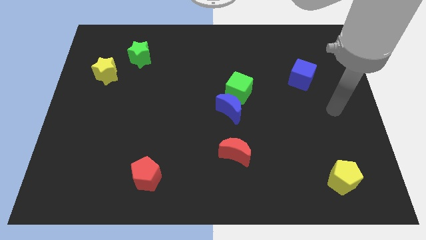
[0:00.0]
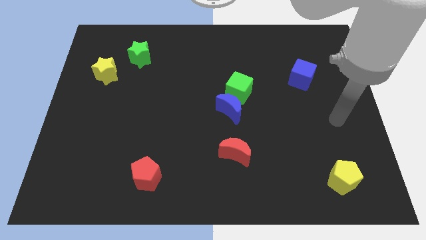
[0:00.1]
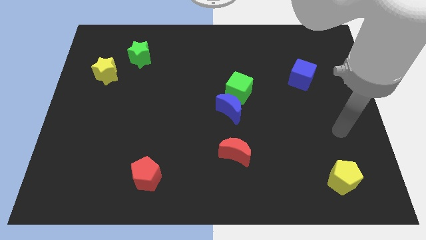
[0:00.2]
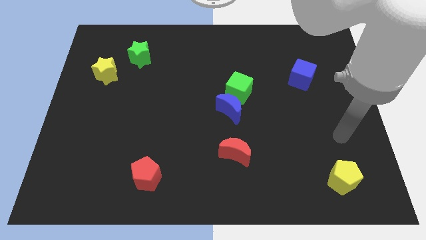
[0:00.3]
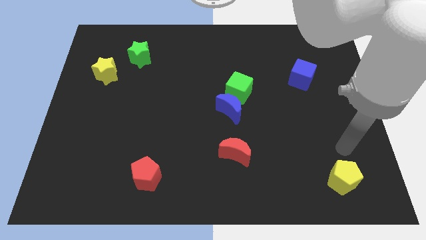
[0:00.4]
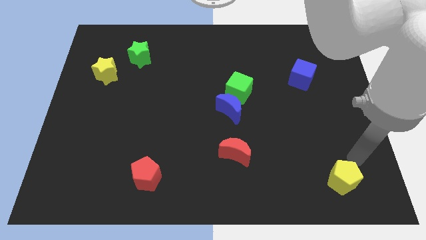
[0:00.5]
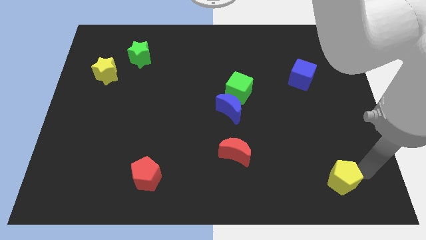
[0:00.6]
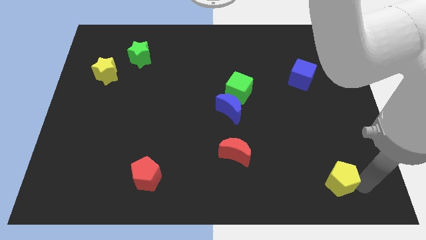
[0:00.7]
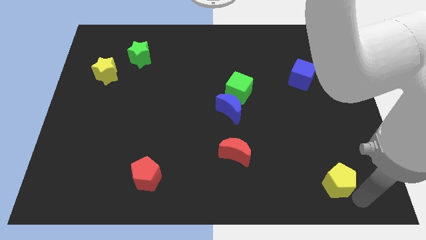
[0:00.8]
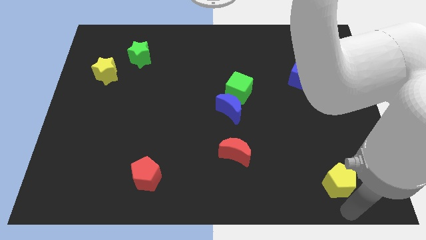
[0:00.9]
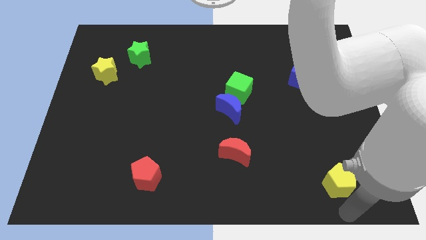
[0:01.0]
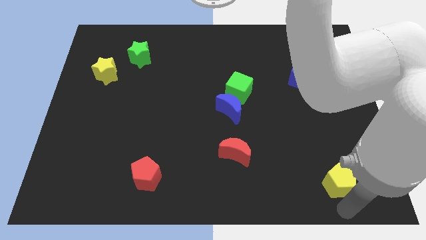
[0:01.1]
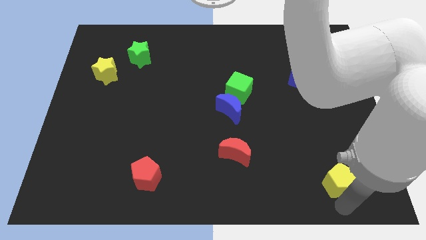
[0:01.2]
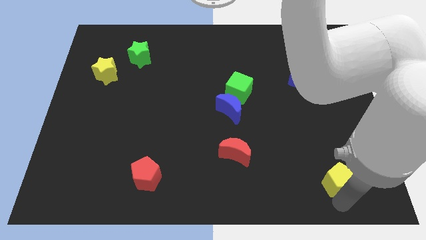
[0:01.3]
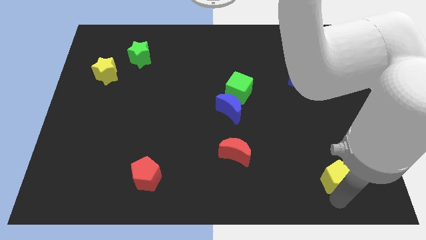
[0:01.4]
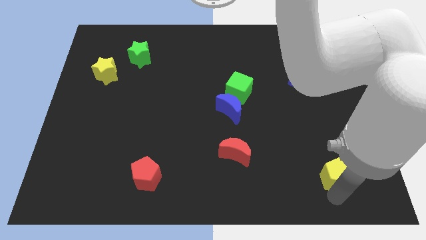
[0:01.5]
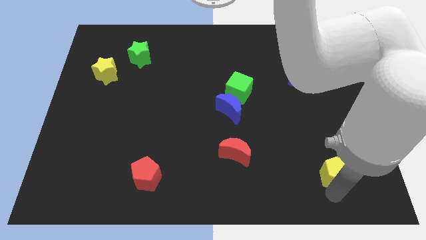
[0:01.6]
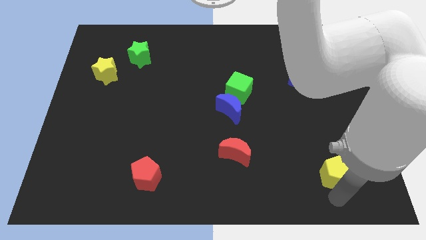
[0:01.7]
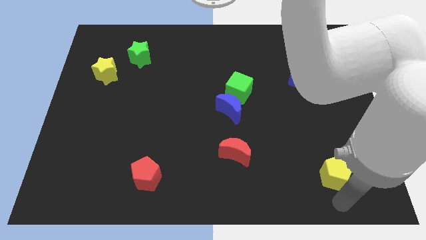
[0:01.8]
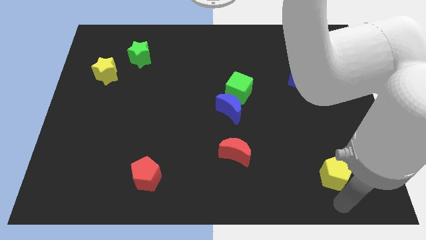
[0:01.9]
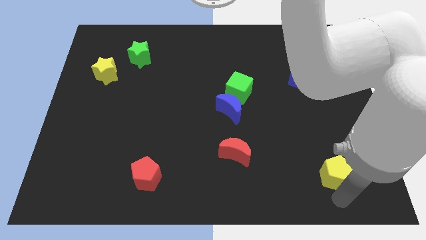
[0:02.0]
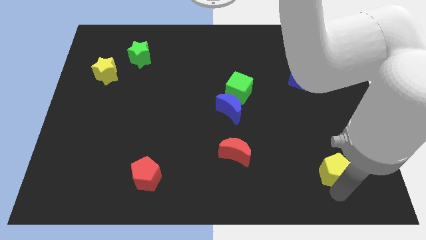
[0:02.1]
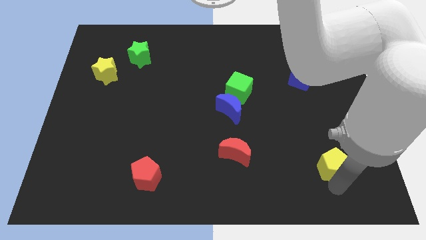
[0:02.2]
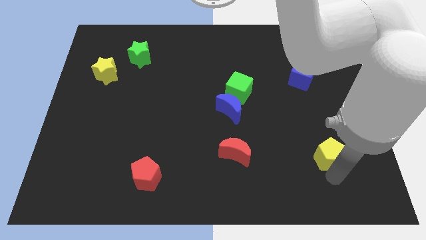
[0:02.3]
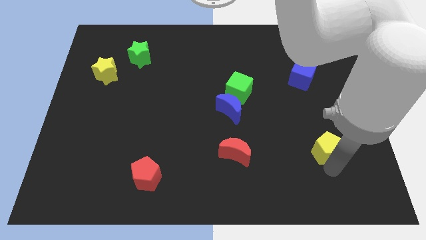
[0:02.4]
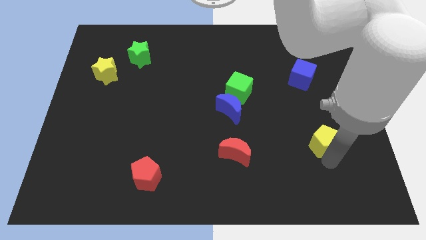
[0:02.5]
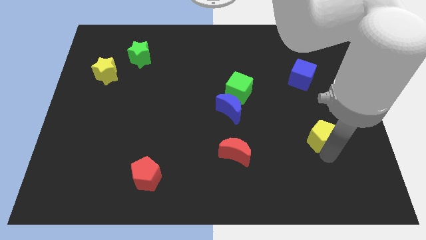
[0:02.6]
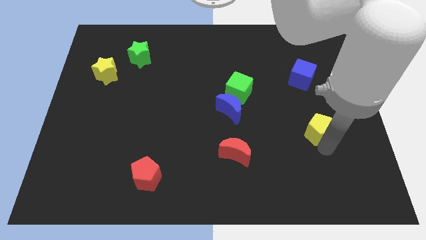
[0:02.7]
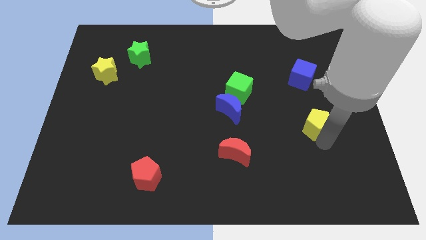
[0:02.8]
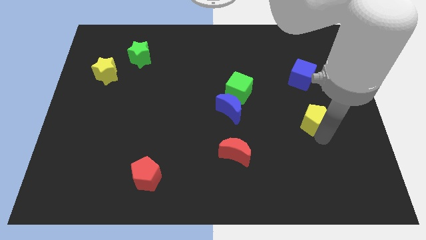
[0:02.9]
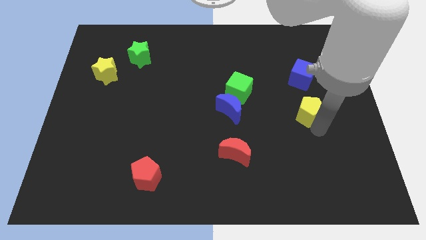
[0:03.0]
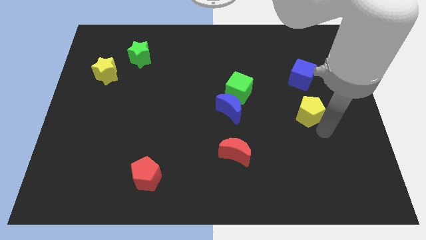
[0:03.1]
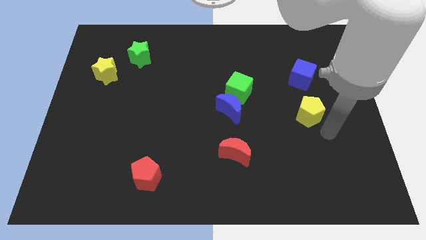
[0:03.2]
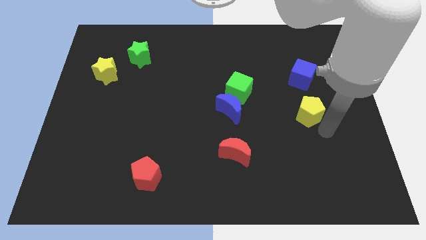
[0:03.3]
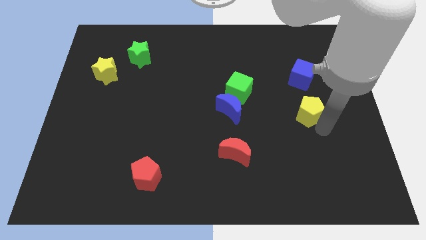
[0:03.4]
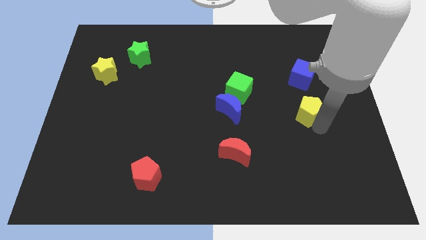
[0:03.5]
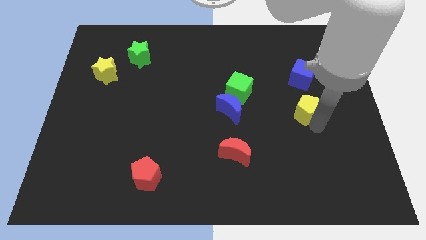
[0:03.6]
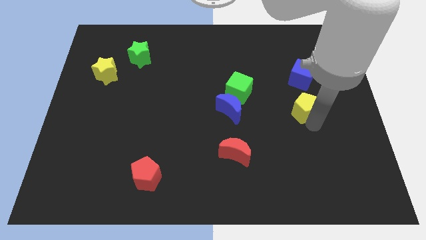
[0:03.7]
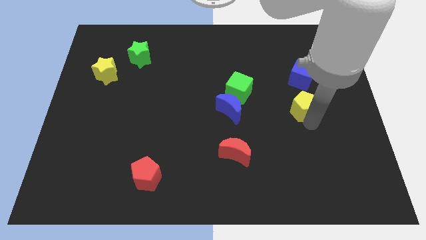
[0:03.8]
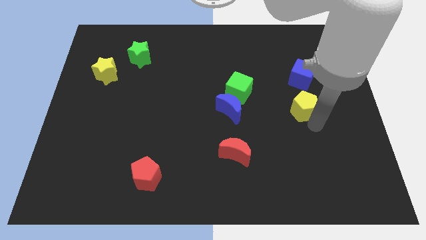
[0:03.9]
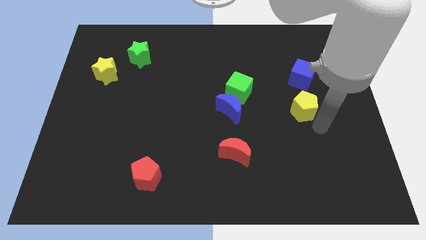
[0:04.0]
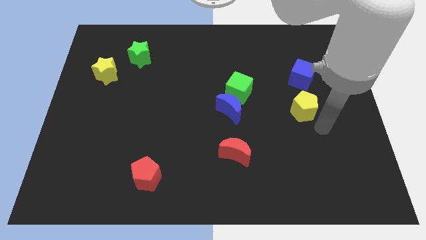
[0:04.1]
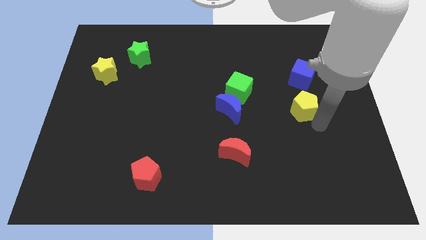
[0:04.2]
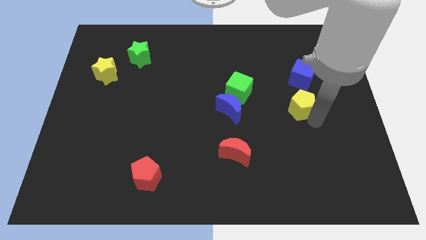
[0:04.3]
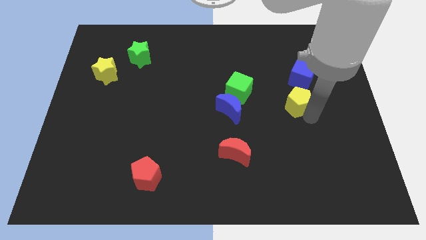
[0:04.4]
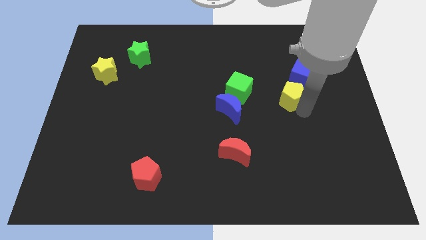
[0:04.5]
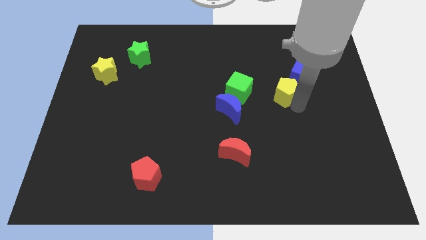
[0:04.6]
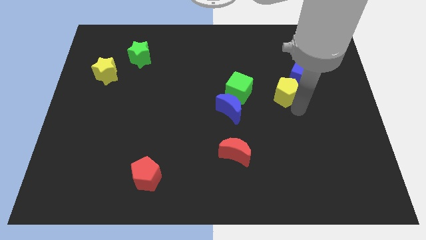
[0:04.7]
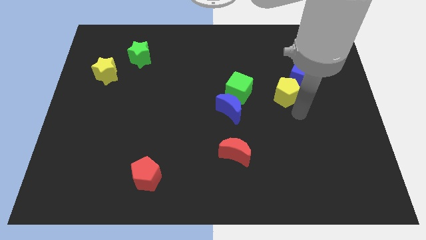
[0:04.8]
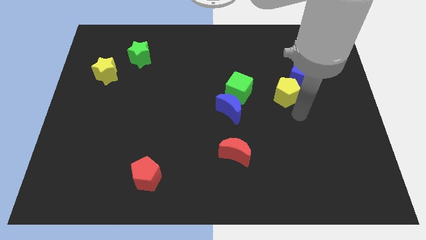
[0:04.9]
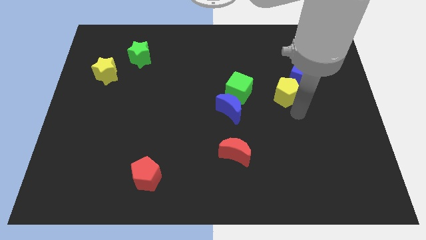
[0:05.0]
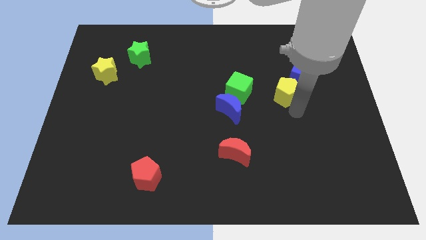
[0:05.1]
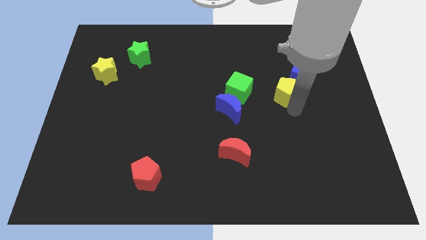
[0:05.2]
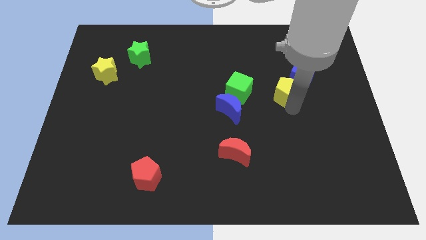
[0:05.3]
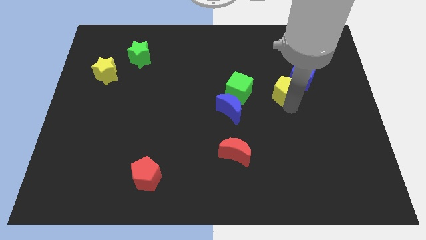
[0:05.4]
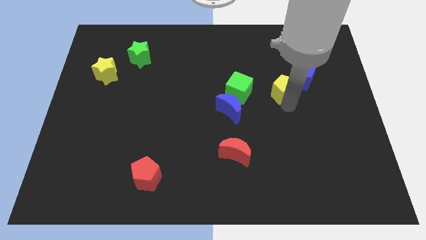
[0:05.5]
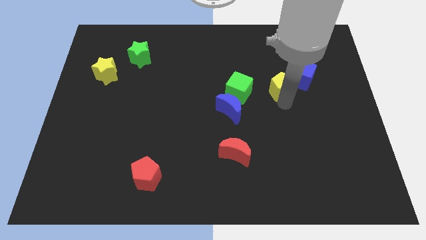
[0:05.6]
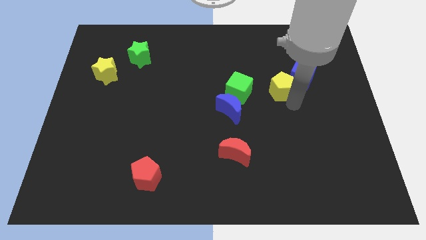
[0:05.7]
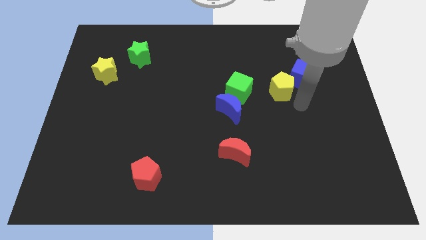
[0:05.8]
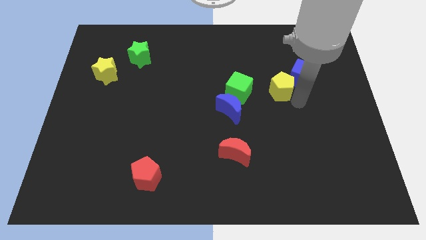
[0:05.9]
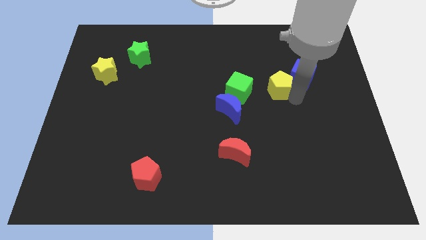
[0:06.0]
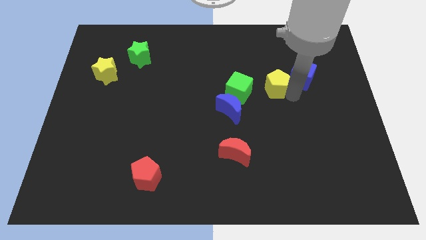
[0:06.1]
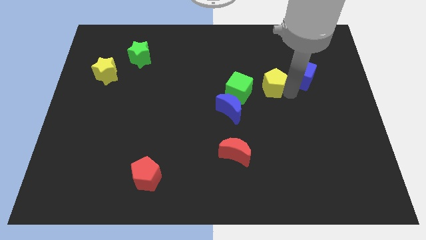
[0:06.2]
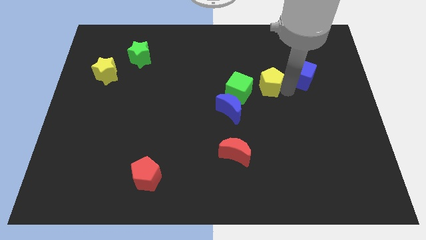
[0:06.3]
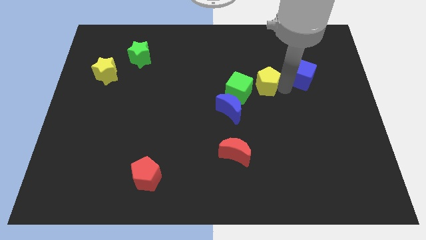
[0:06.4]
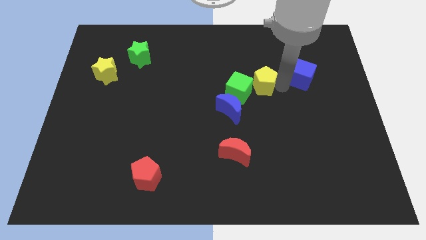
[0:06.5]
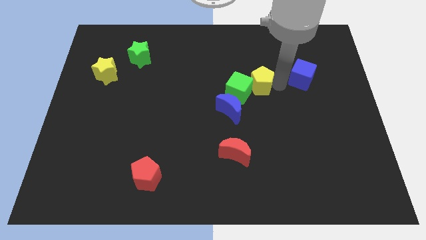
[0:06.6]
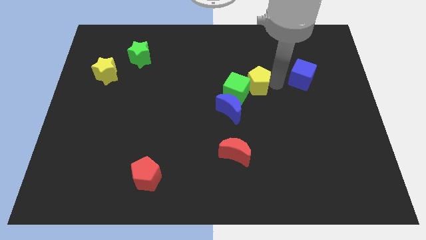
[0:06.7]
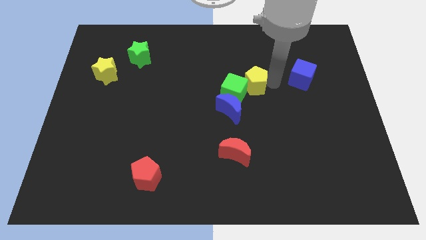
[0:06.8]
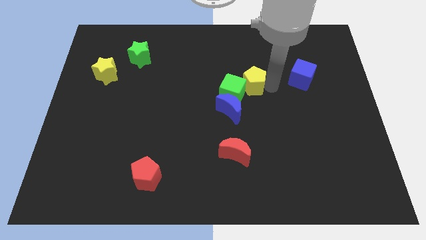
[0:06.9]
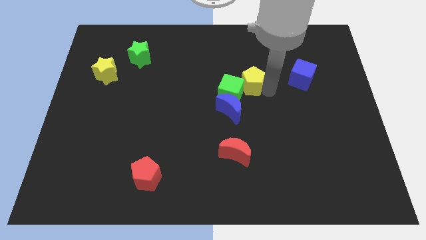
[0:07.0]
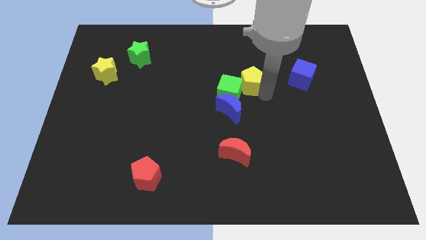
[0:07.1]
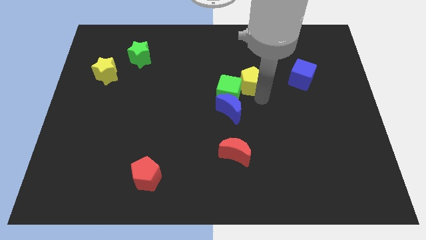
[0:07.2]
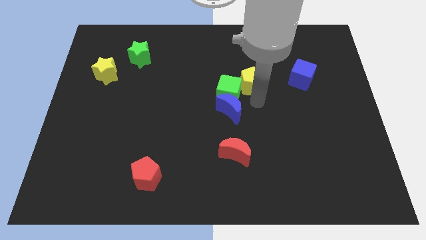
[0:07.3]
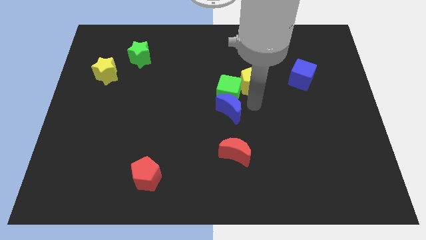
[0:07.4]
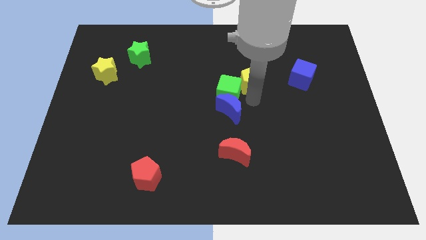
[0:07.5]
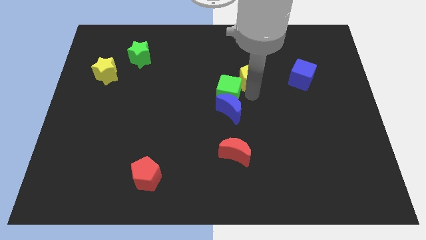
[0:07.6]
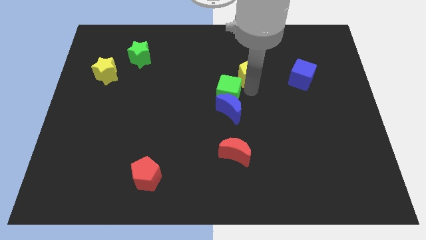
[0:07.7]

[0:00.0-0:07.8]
move the yellow pentagon above the green cube
